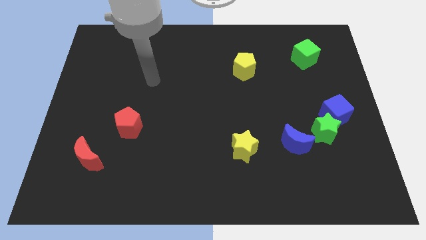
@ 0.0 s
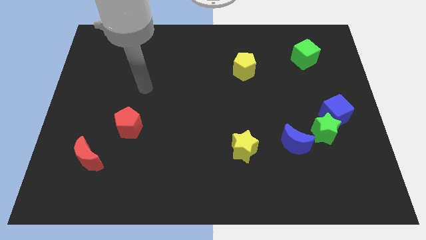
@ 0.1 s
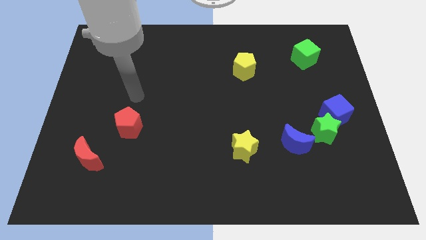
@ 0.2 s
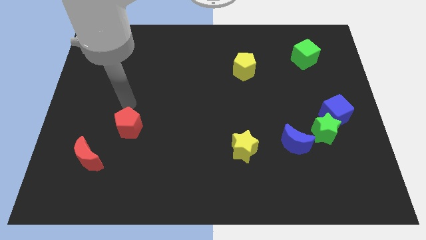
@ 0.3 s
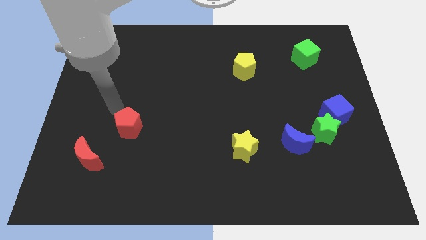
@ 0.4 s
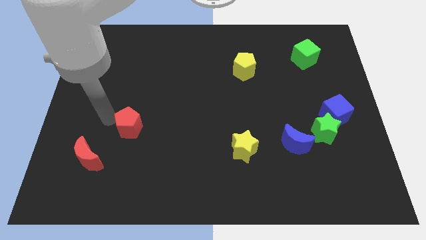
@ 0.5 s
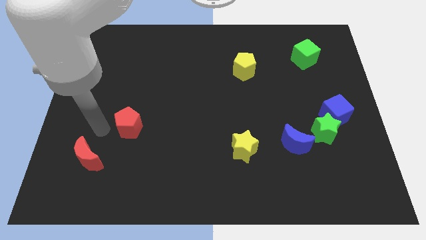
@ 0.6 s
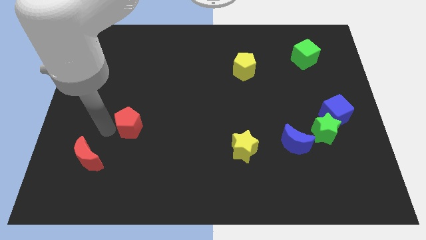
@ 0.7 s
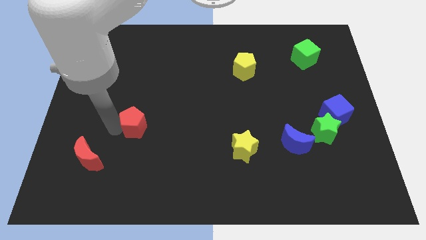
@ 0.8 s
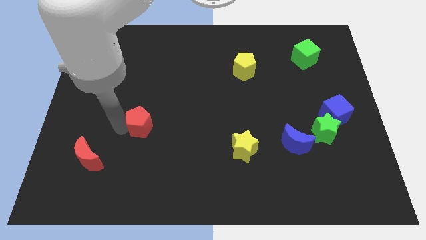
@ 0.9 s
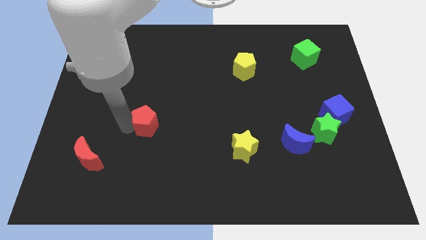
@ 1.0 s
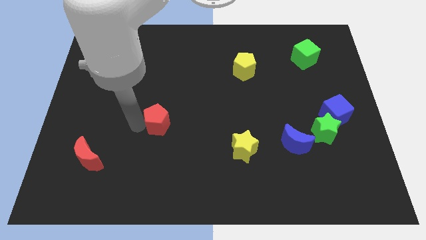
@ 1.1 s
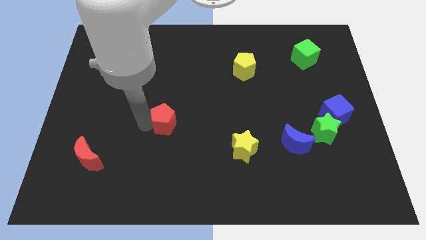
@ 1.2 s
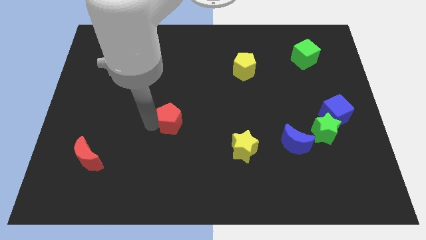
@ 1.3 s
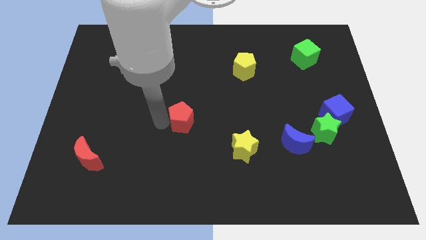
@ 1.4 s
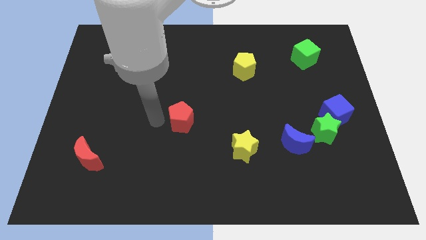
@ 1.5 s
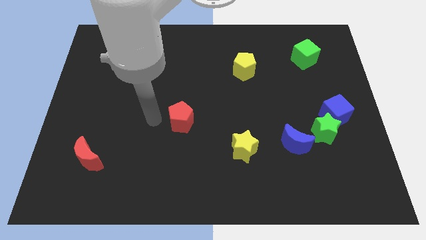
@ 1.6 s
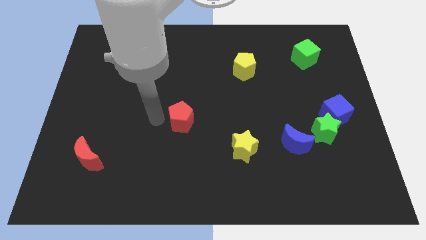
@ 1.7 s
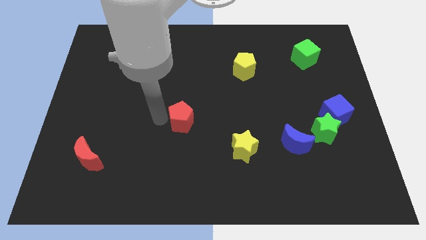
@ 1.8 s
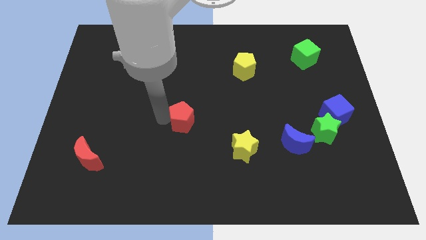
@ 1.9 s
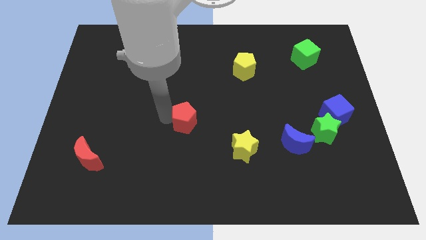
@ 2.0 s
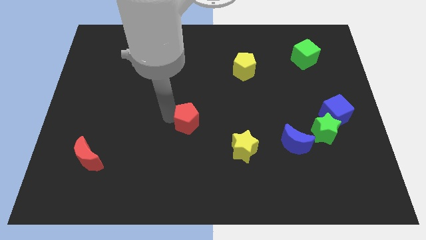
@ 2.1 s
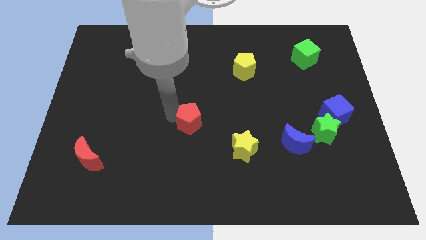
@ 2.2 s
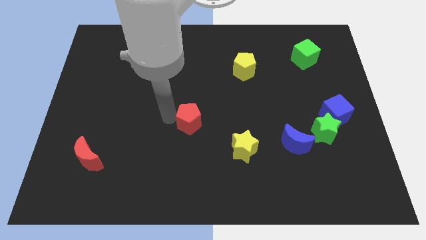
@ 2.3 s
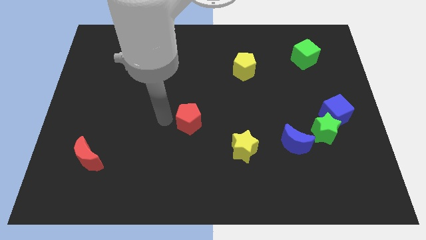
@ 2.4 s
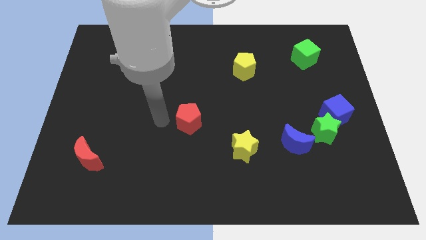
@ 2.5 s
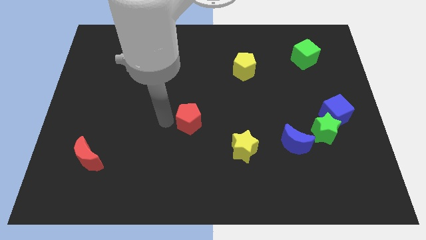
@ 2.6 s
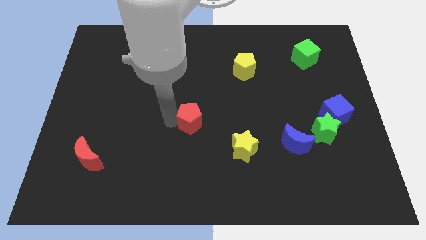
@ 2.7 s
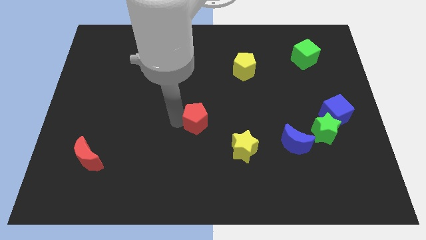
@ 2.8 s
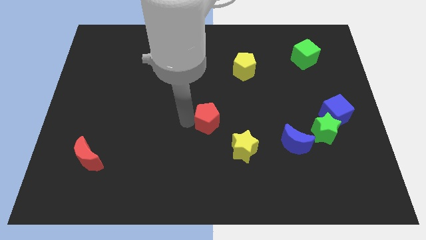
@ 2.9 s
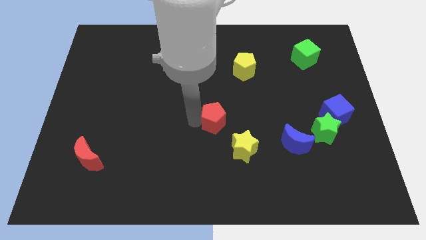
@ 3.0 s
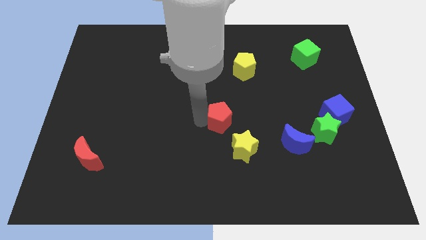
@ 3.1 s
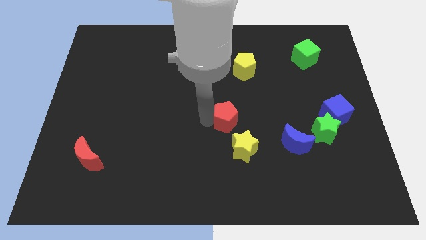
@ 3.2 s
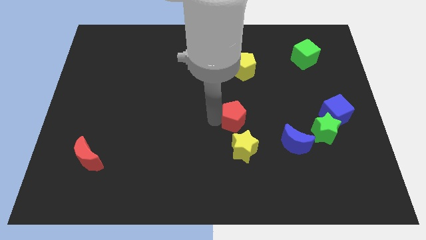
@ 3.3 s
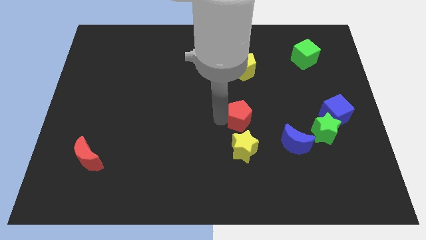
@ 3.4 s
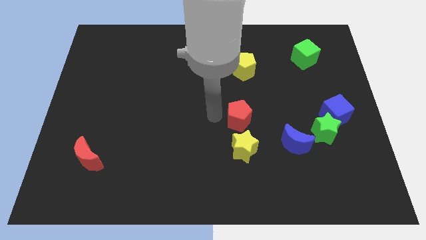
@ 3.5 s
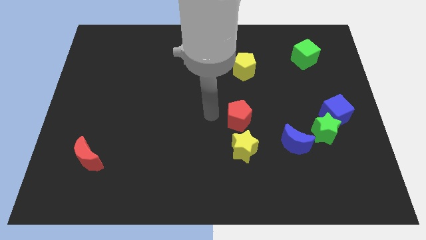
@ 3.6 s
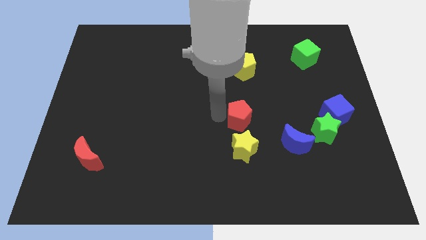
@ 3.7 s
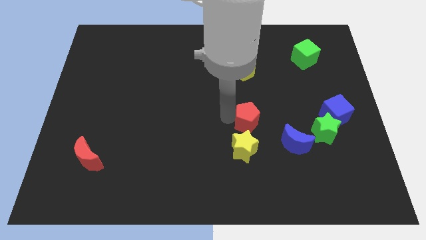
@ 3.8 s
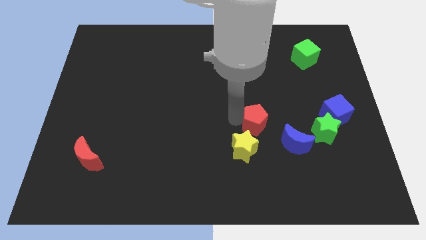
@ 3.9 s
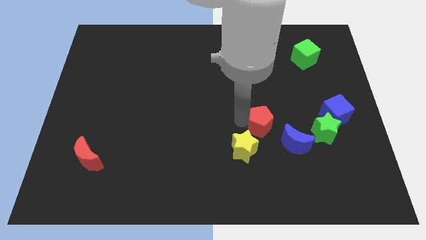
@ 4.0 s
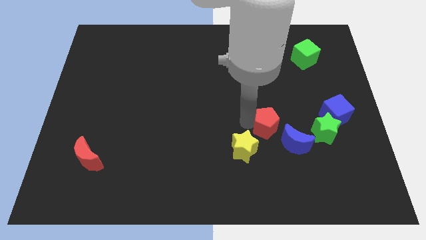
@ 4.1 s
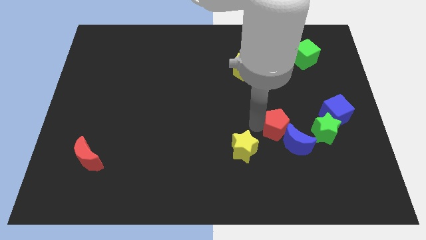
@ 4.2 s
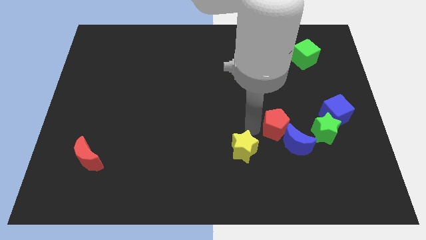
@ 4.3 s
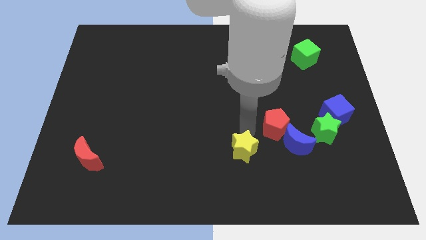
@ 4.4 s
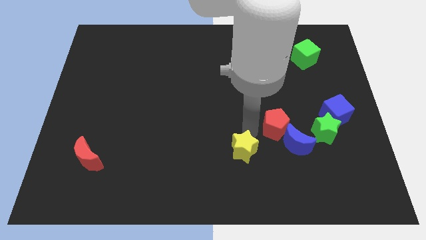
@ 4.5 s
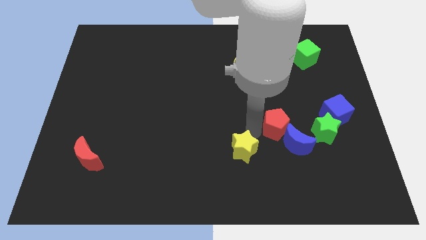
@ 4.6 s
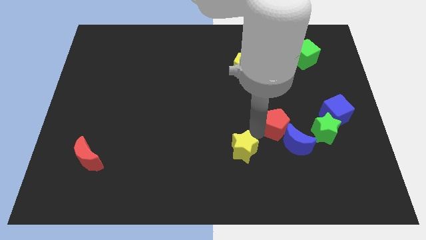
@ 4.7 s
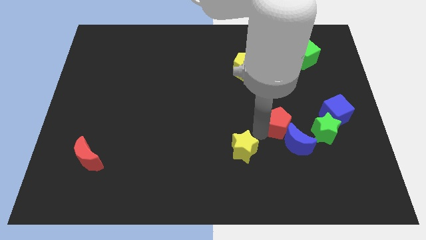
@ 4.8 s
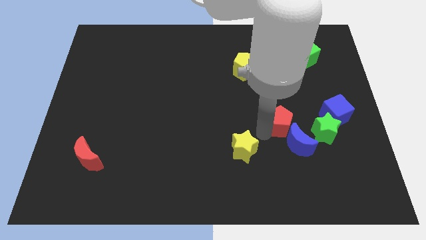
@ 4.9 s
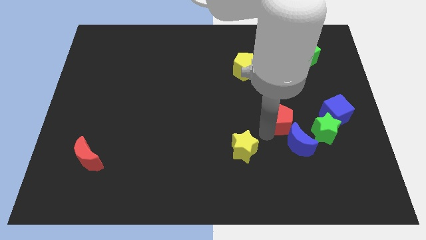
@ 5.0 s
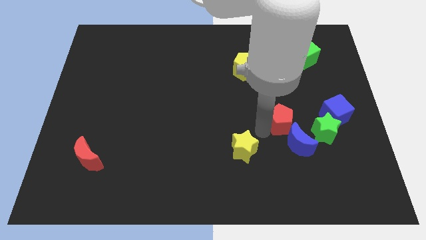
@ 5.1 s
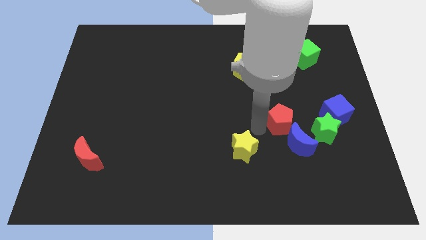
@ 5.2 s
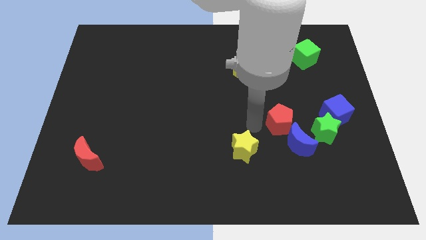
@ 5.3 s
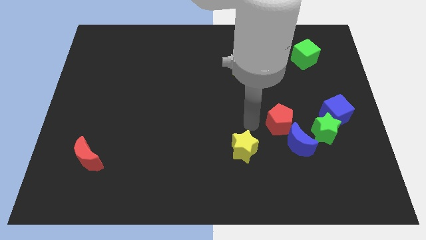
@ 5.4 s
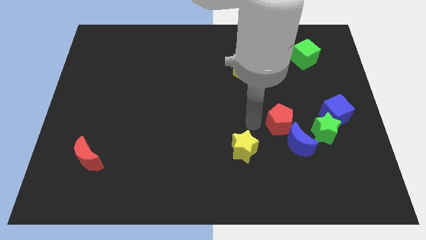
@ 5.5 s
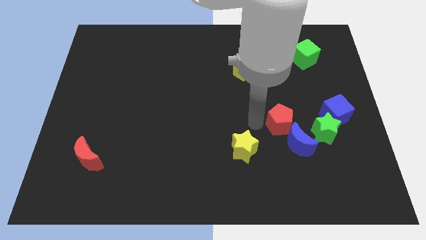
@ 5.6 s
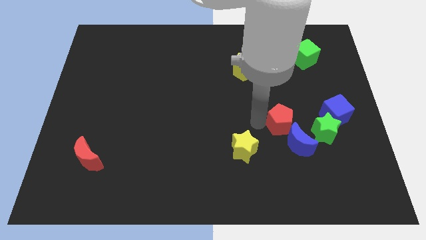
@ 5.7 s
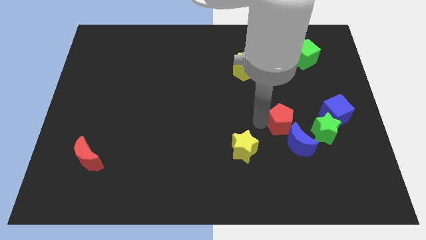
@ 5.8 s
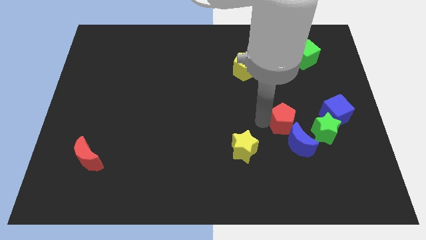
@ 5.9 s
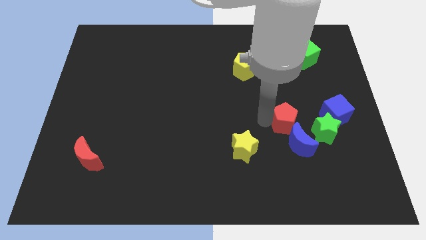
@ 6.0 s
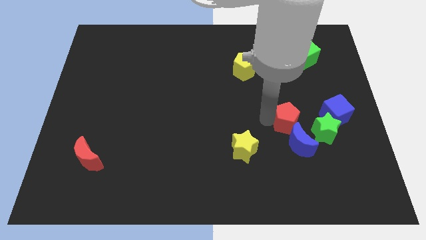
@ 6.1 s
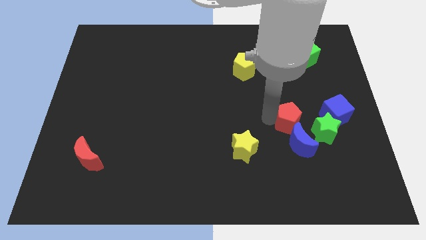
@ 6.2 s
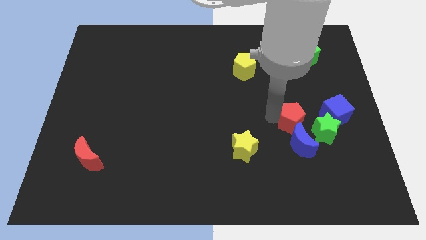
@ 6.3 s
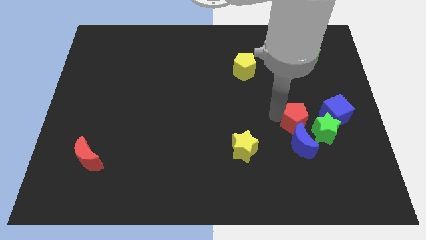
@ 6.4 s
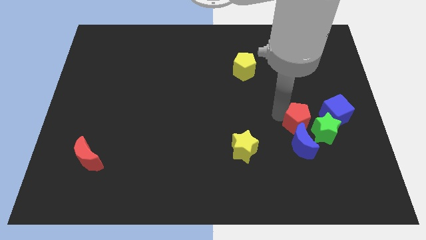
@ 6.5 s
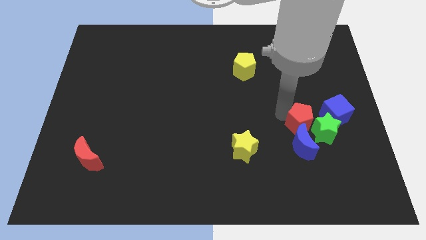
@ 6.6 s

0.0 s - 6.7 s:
push the red pentagon next to the green star
